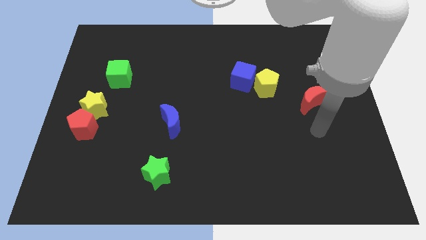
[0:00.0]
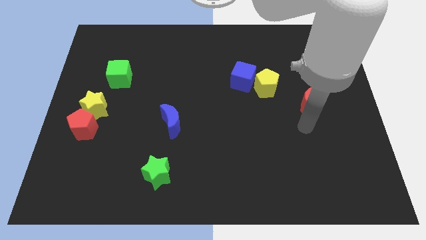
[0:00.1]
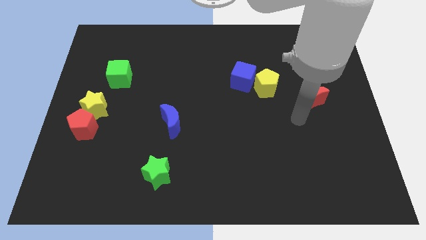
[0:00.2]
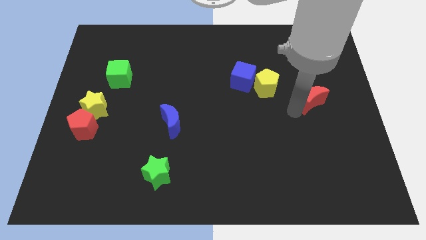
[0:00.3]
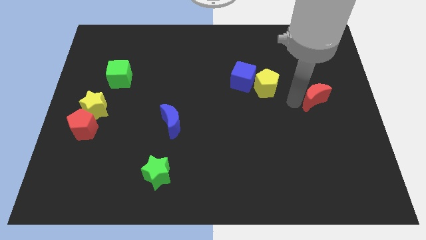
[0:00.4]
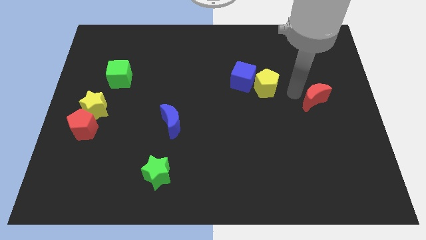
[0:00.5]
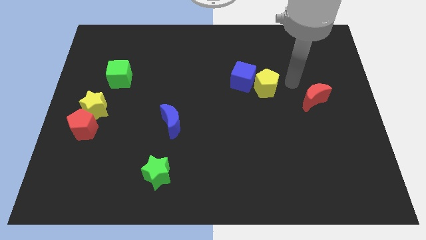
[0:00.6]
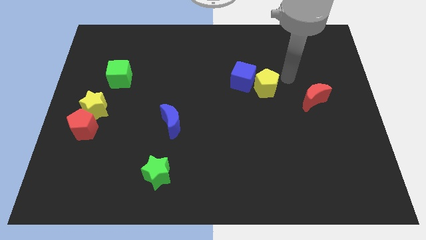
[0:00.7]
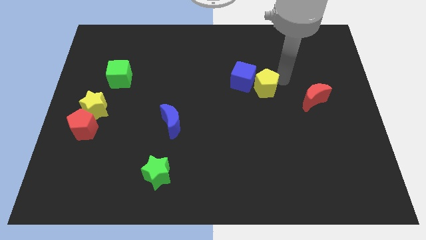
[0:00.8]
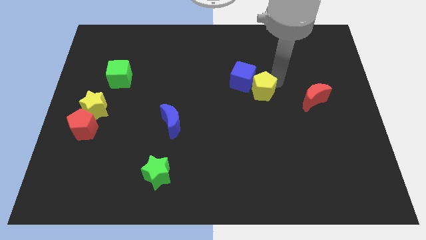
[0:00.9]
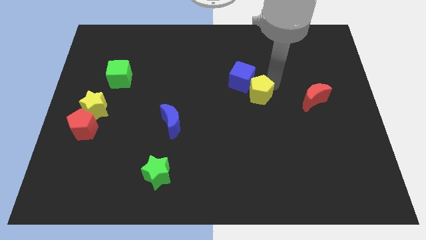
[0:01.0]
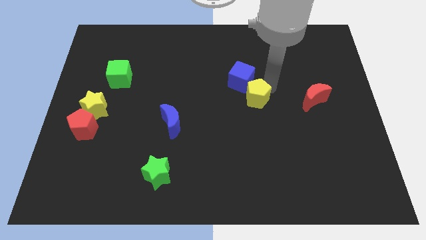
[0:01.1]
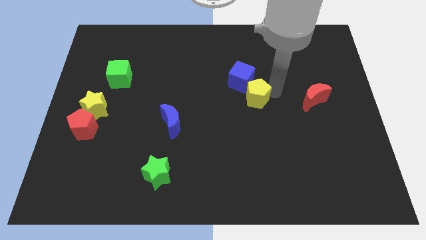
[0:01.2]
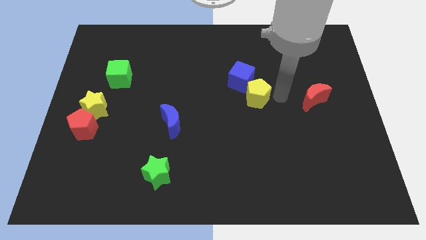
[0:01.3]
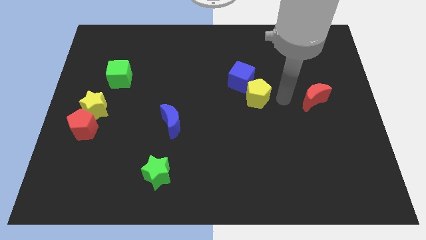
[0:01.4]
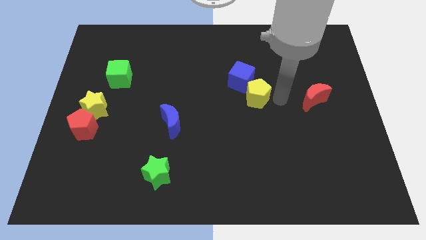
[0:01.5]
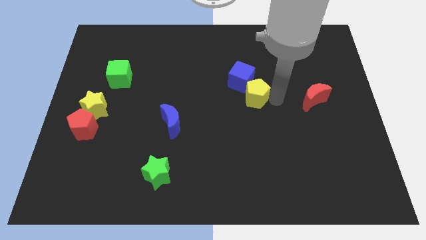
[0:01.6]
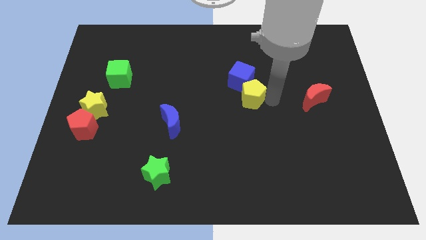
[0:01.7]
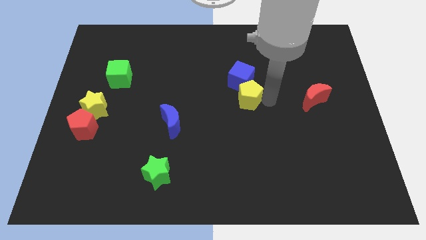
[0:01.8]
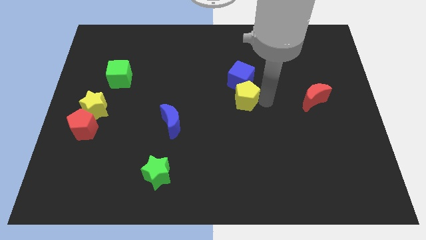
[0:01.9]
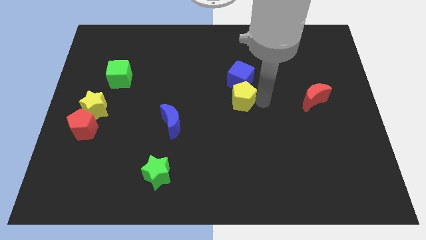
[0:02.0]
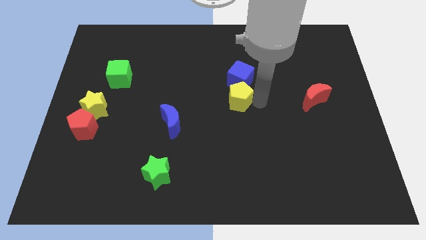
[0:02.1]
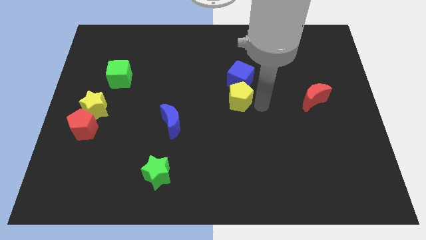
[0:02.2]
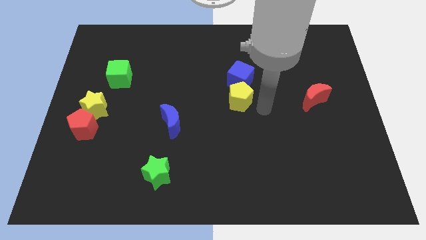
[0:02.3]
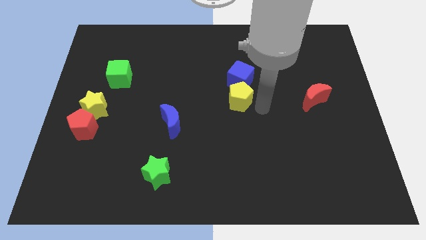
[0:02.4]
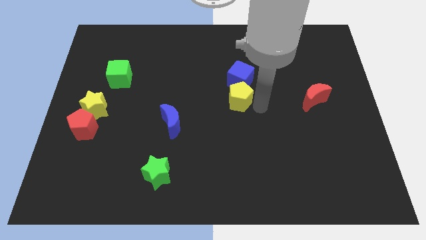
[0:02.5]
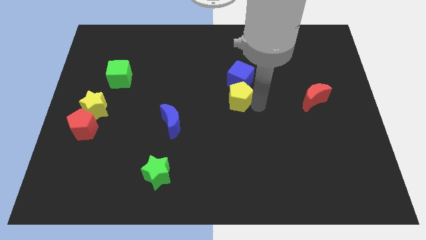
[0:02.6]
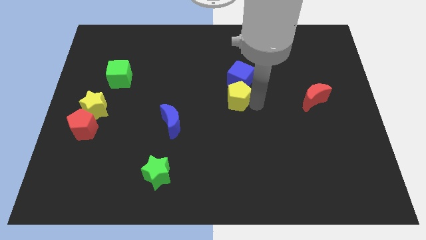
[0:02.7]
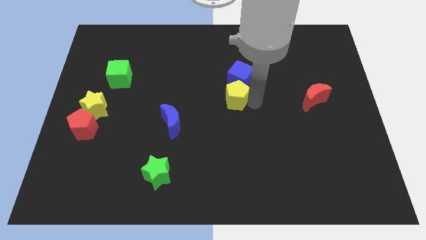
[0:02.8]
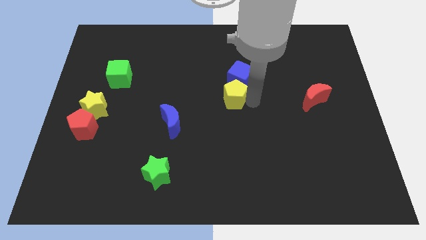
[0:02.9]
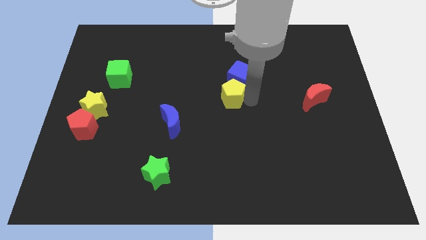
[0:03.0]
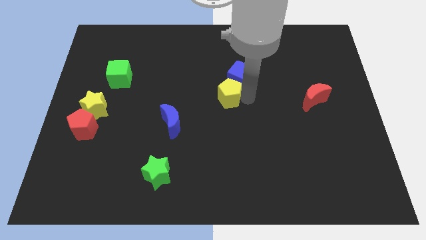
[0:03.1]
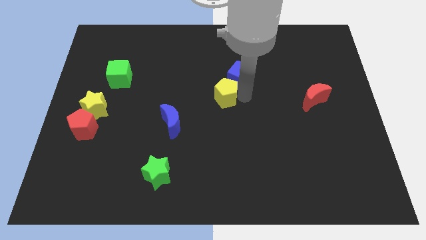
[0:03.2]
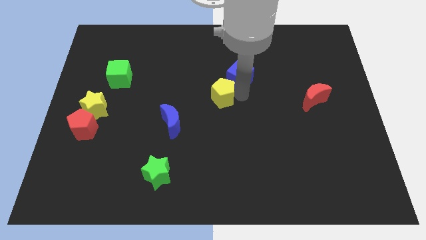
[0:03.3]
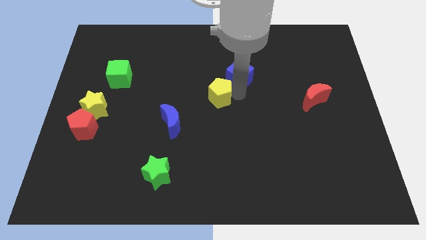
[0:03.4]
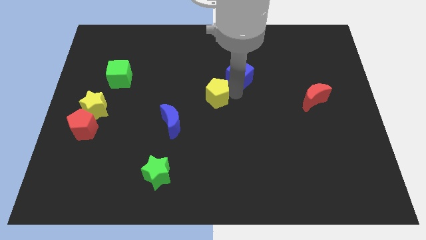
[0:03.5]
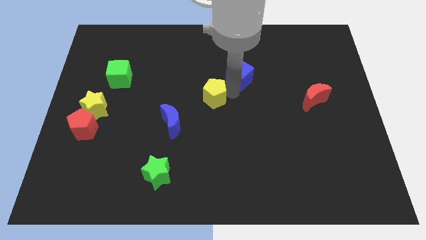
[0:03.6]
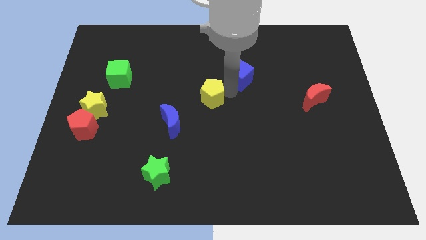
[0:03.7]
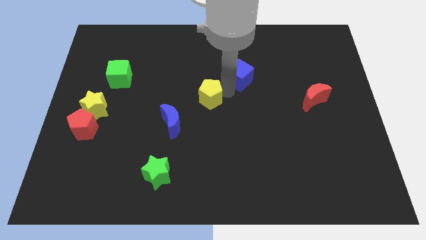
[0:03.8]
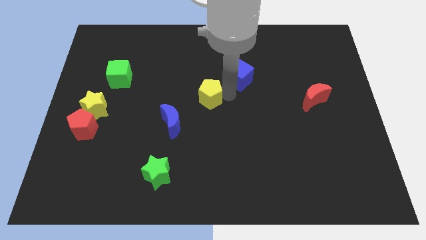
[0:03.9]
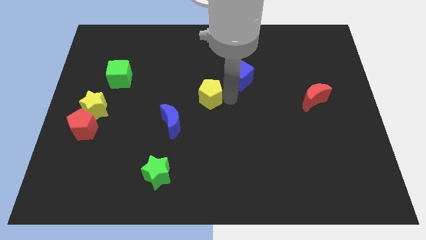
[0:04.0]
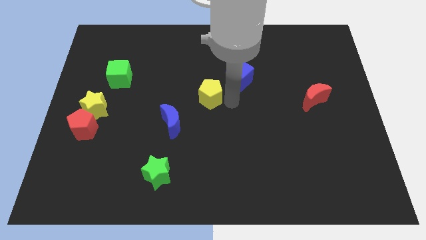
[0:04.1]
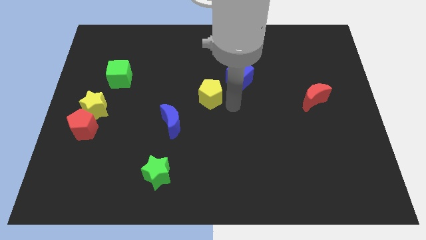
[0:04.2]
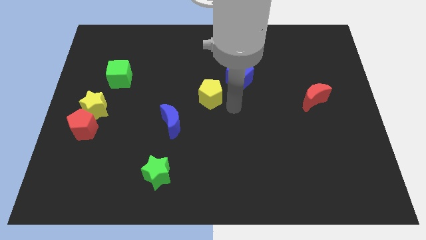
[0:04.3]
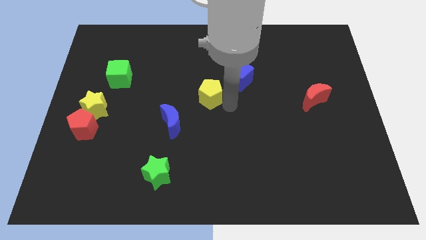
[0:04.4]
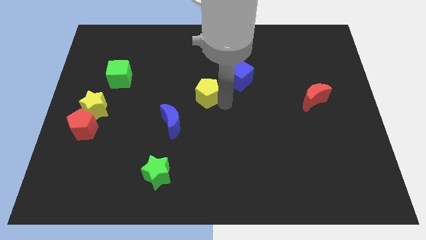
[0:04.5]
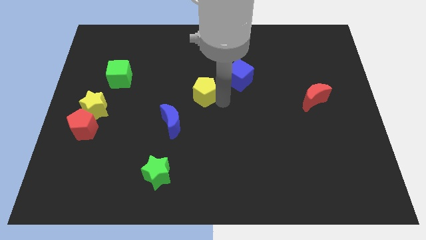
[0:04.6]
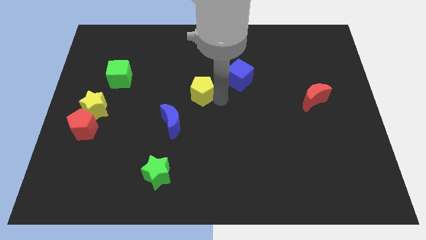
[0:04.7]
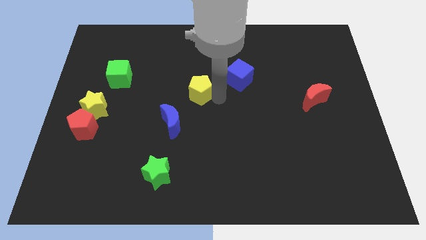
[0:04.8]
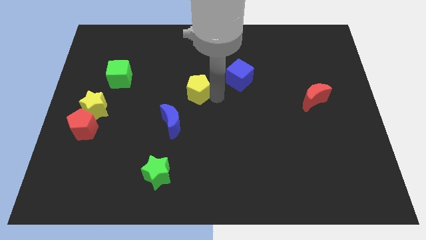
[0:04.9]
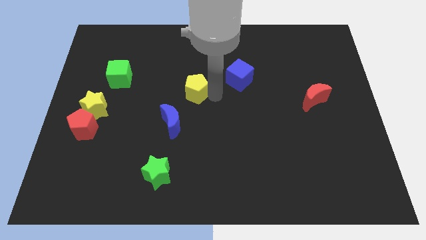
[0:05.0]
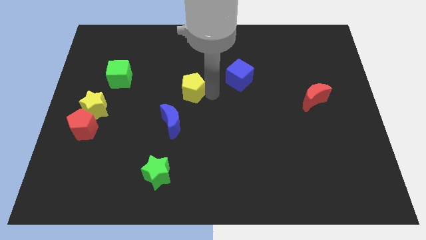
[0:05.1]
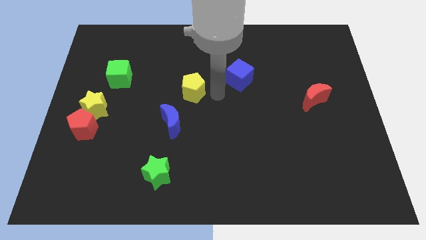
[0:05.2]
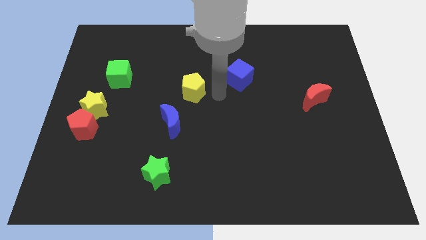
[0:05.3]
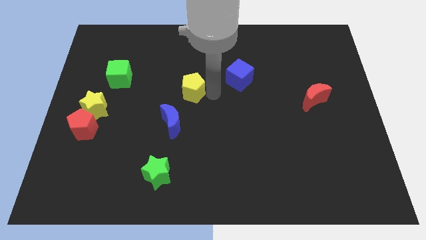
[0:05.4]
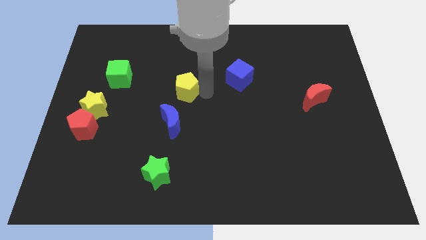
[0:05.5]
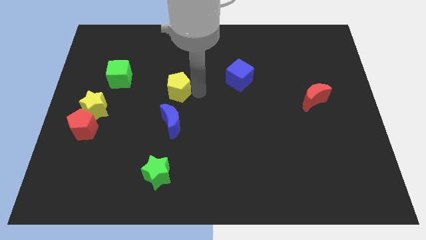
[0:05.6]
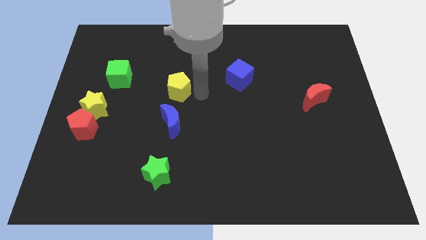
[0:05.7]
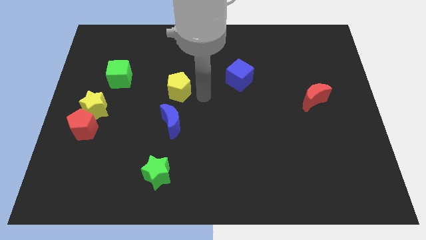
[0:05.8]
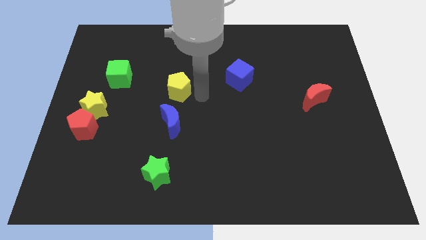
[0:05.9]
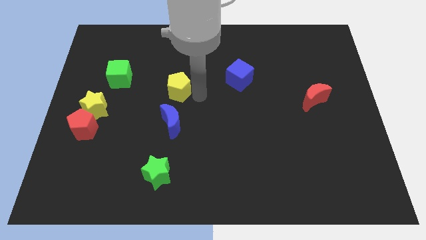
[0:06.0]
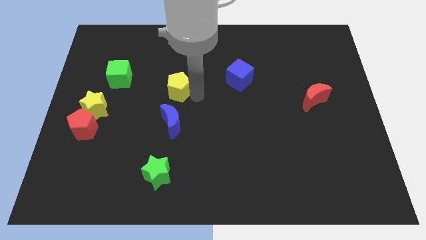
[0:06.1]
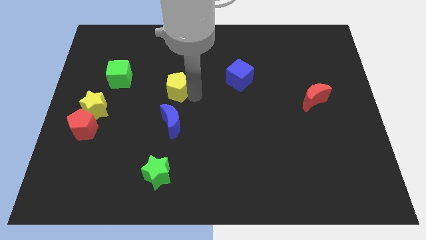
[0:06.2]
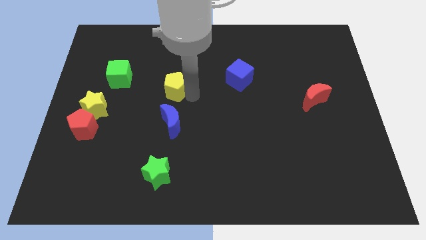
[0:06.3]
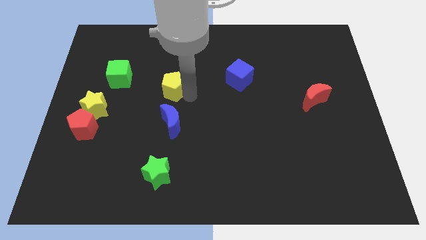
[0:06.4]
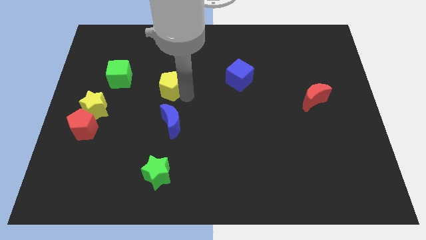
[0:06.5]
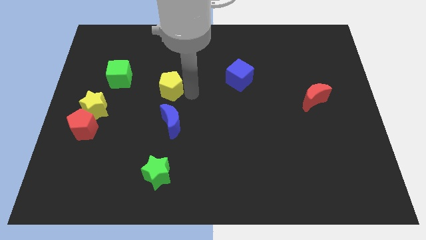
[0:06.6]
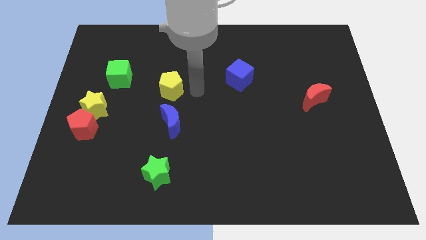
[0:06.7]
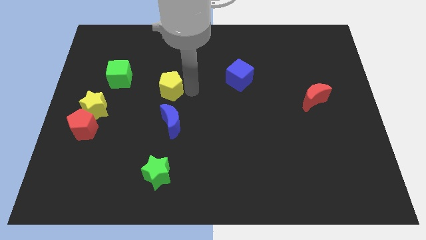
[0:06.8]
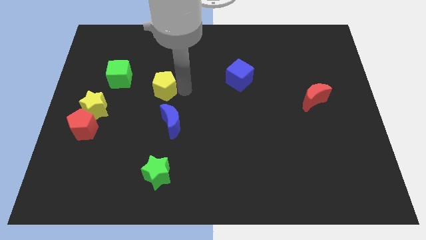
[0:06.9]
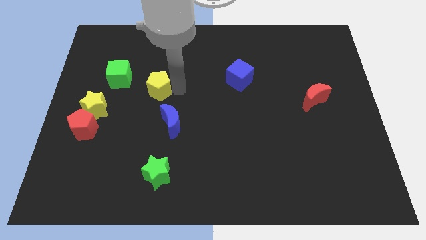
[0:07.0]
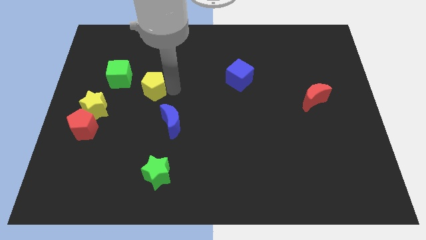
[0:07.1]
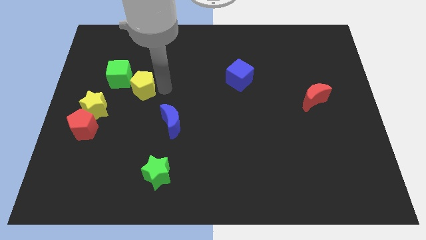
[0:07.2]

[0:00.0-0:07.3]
slide the yellow pentagon to the top right of the yellow star
